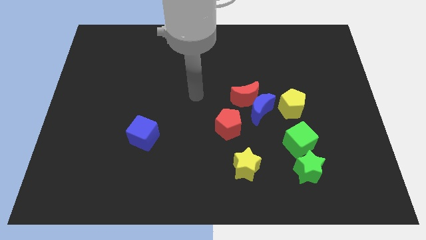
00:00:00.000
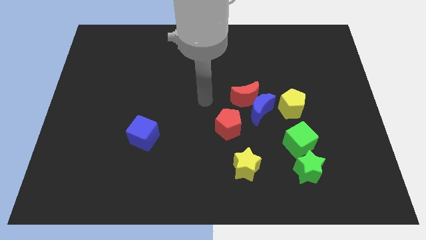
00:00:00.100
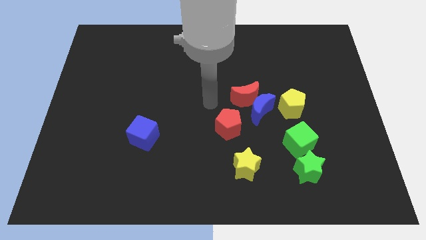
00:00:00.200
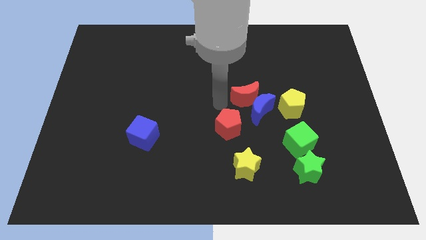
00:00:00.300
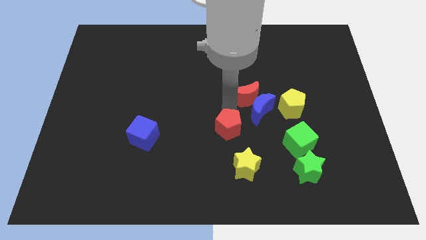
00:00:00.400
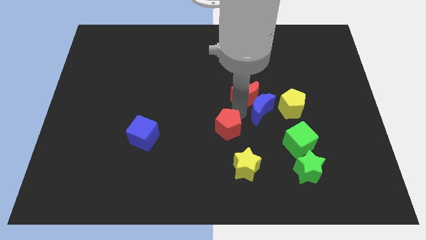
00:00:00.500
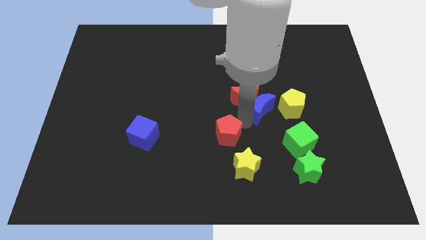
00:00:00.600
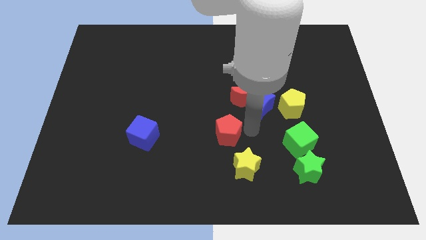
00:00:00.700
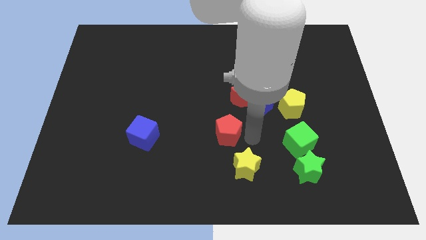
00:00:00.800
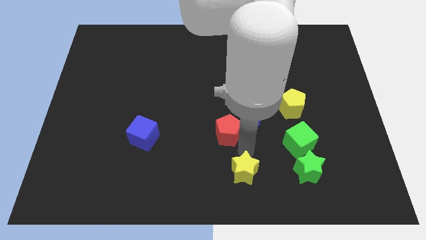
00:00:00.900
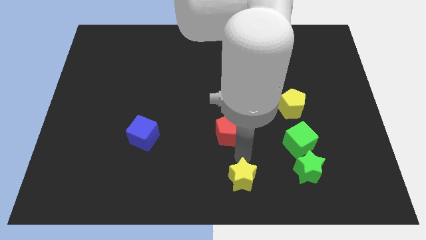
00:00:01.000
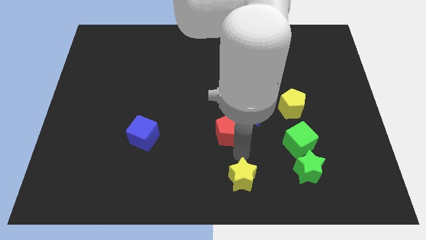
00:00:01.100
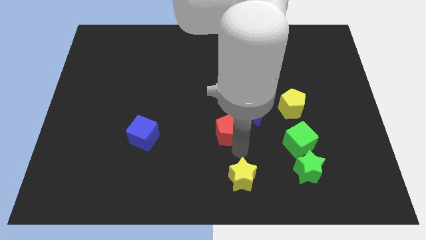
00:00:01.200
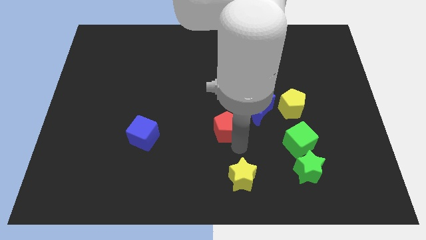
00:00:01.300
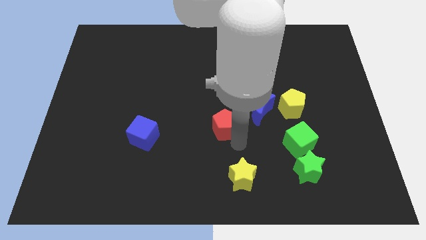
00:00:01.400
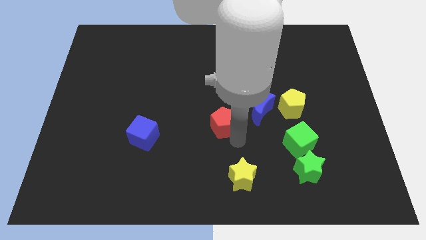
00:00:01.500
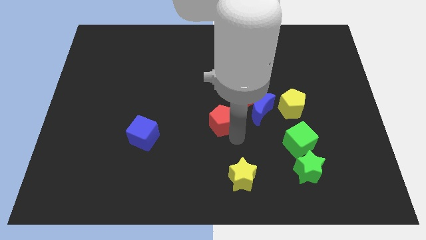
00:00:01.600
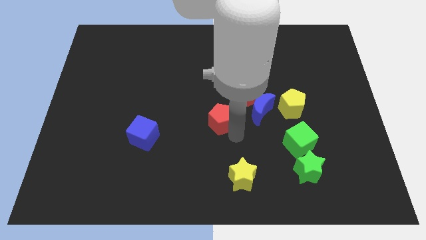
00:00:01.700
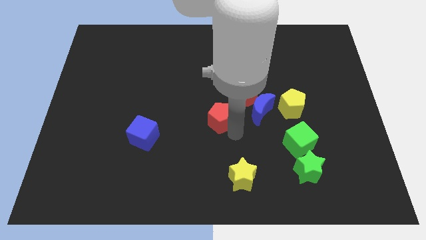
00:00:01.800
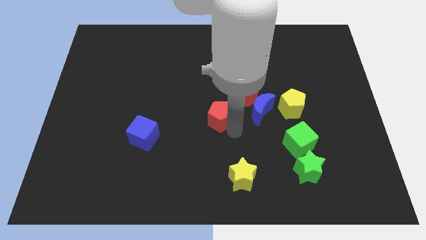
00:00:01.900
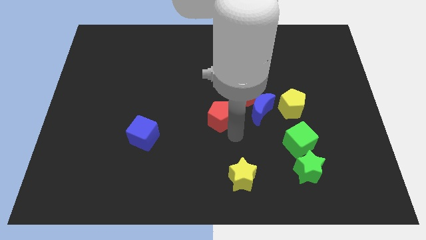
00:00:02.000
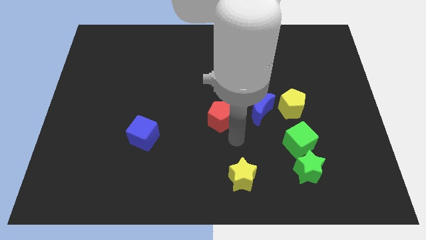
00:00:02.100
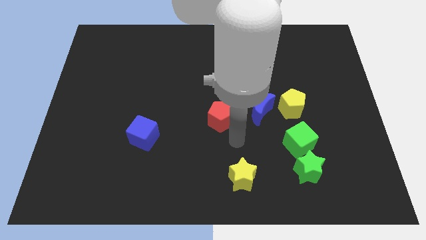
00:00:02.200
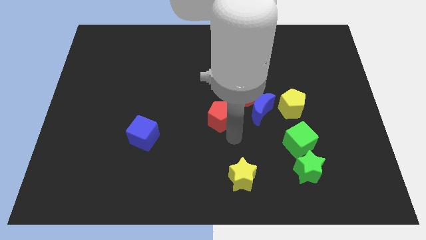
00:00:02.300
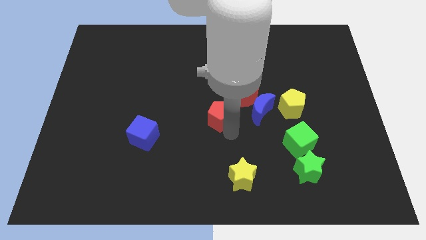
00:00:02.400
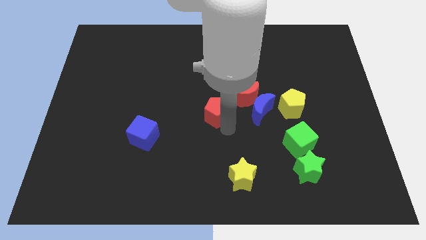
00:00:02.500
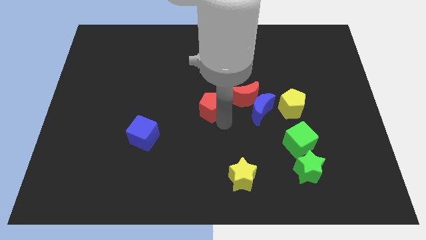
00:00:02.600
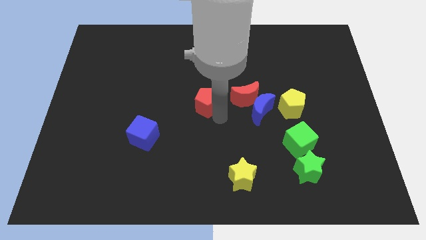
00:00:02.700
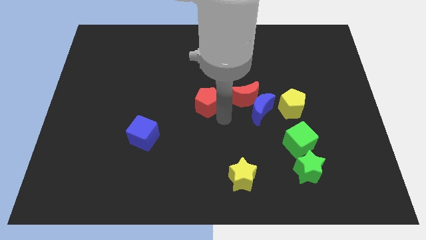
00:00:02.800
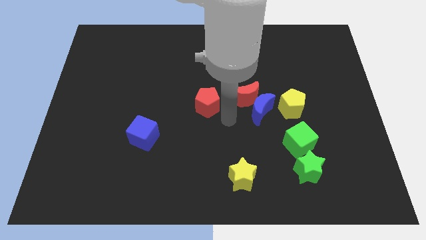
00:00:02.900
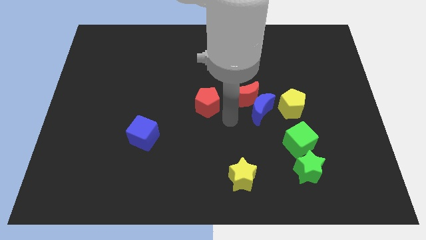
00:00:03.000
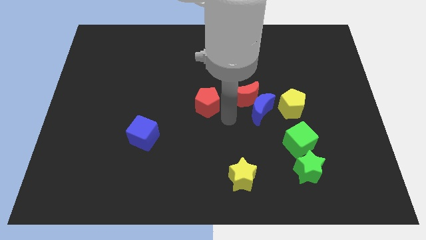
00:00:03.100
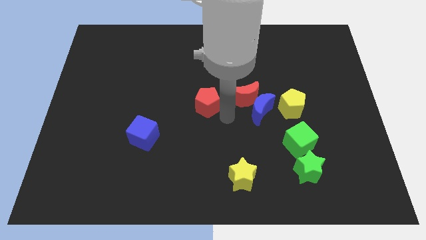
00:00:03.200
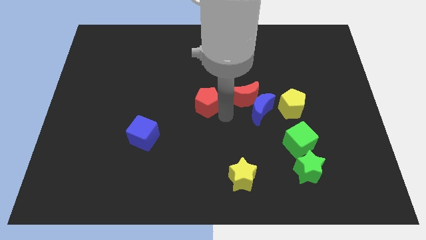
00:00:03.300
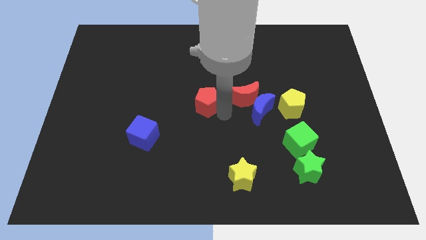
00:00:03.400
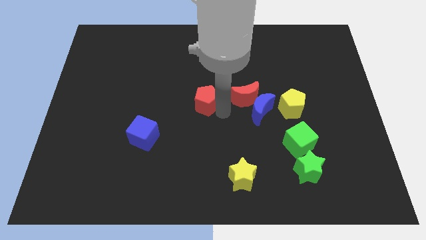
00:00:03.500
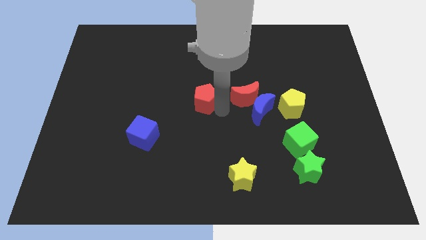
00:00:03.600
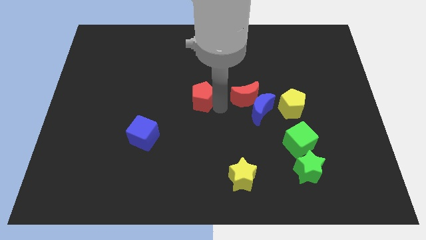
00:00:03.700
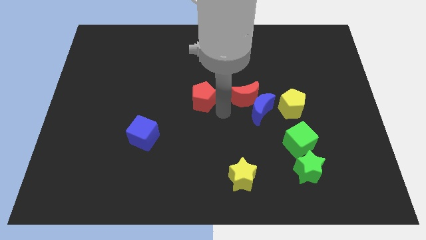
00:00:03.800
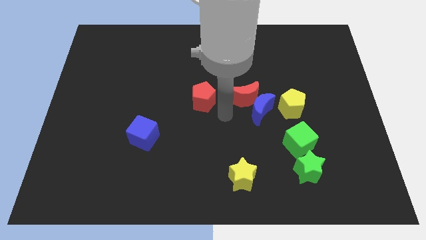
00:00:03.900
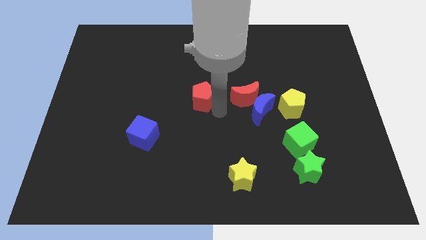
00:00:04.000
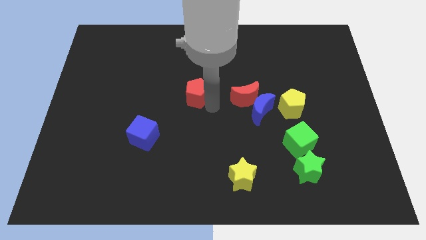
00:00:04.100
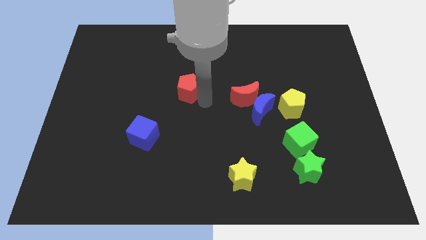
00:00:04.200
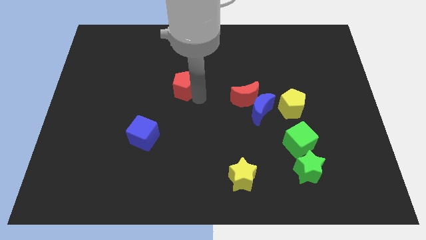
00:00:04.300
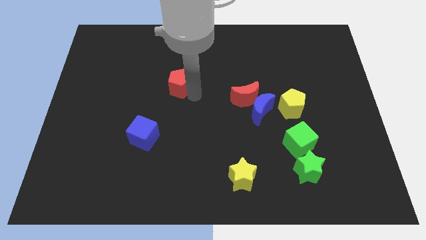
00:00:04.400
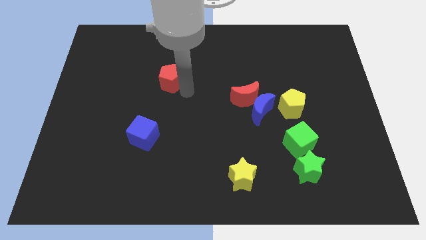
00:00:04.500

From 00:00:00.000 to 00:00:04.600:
slide the red pentagon up and then left

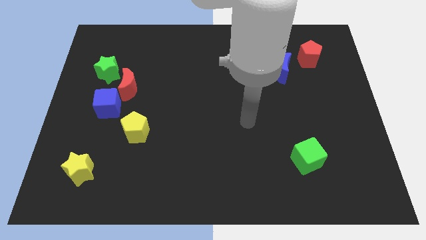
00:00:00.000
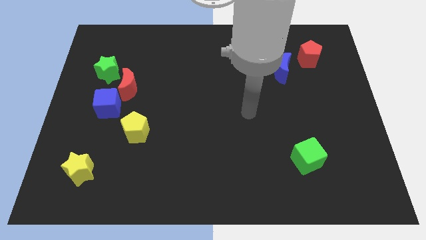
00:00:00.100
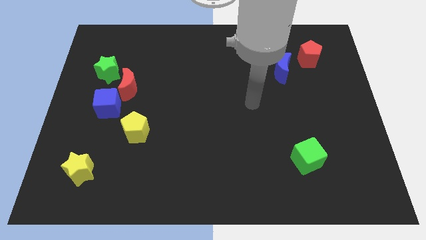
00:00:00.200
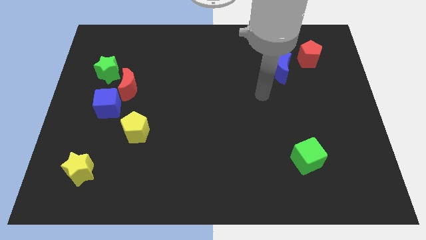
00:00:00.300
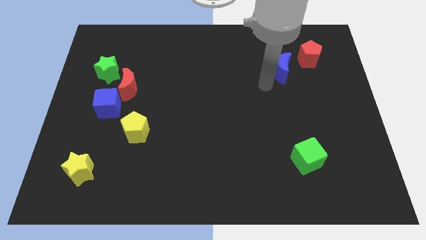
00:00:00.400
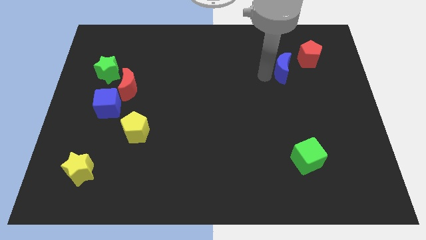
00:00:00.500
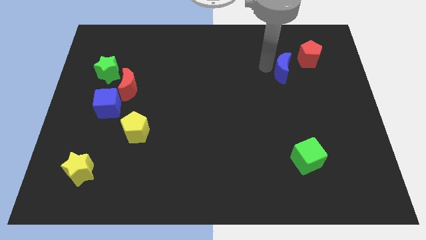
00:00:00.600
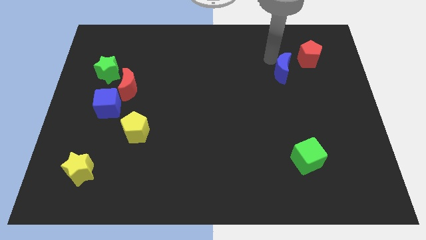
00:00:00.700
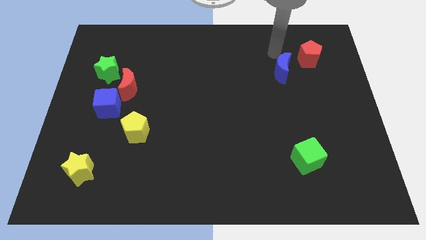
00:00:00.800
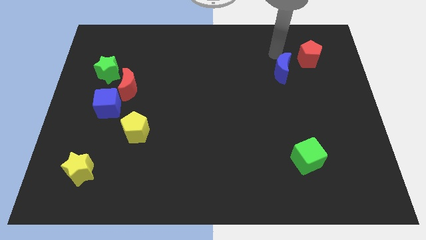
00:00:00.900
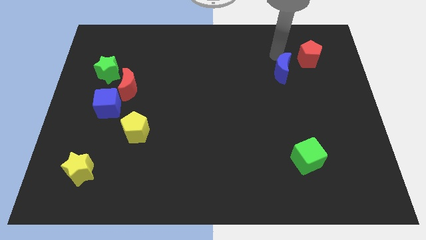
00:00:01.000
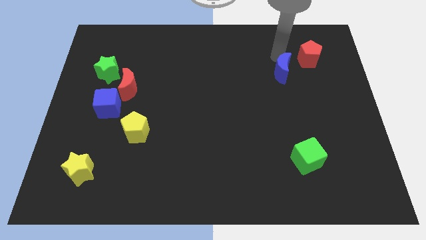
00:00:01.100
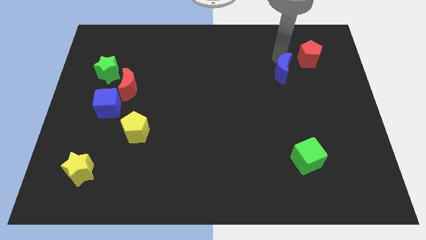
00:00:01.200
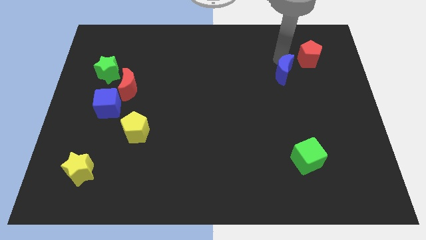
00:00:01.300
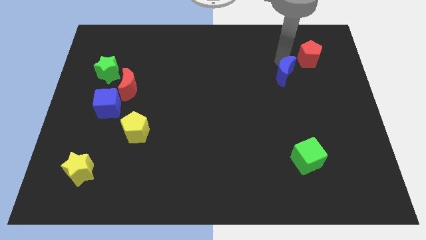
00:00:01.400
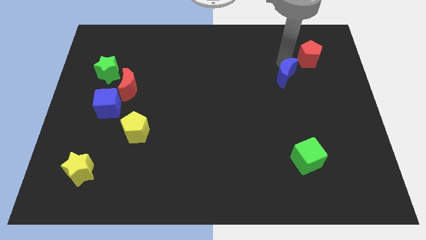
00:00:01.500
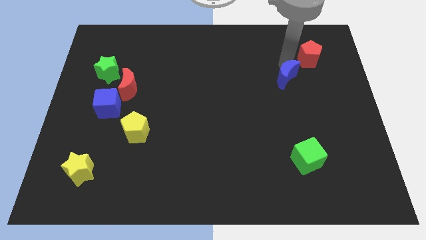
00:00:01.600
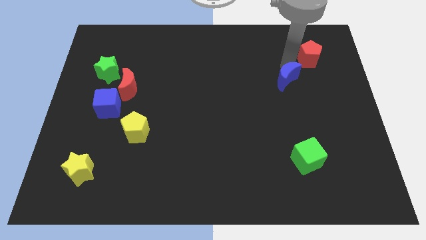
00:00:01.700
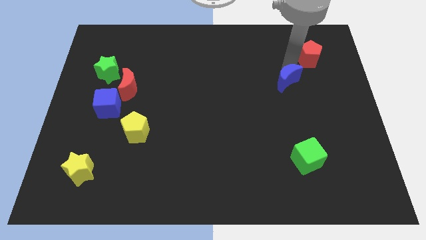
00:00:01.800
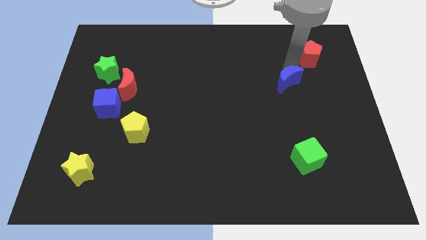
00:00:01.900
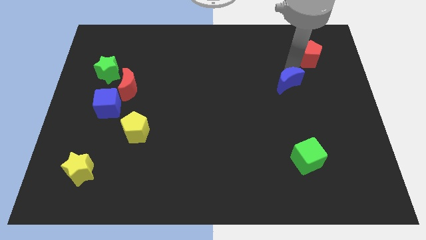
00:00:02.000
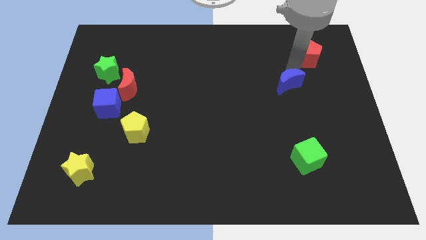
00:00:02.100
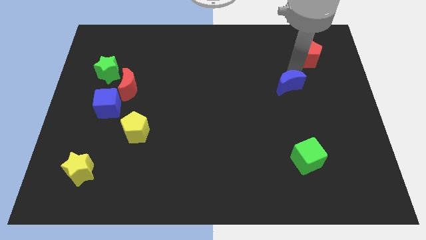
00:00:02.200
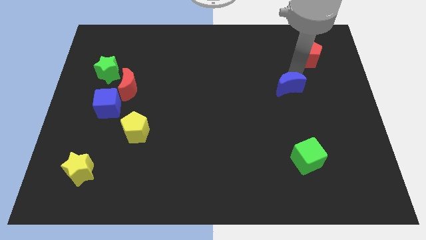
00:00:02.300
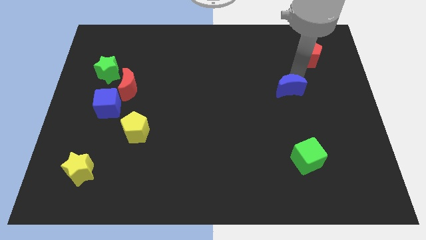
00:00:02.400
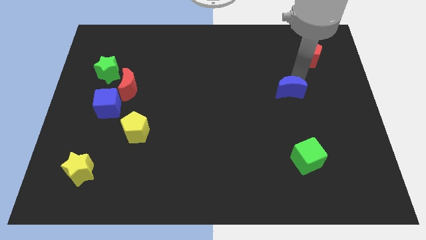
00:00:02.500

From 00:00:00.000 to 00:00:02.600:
slightly move the blue moon down

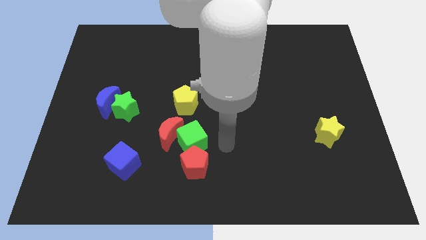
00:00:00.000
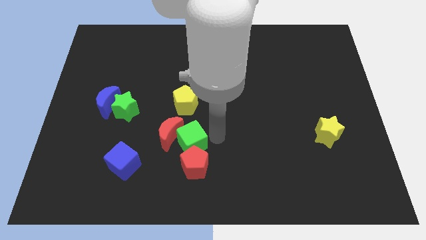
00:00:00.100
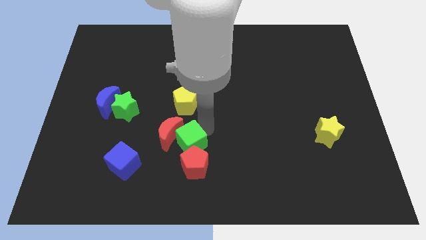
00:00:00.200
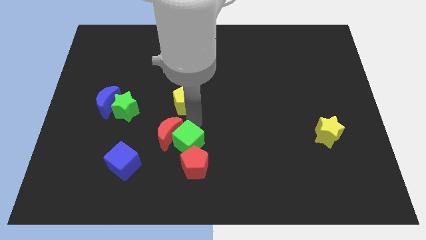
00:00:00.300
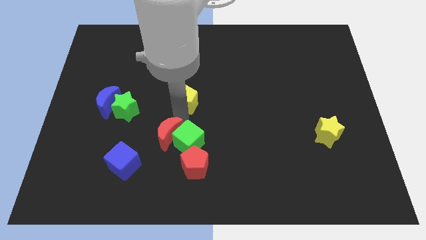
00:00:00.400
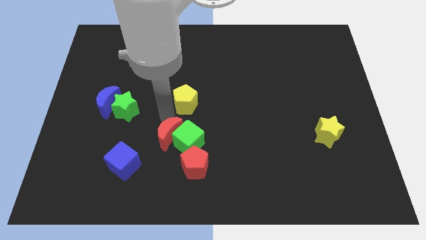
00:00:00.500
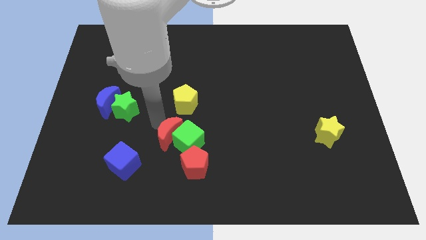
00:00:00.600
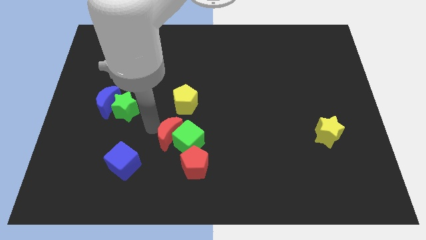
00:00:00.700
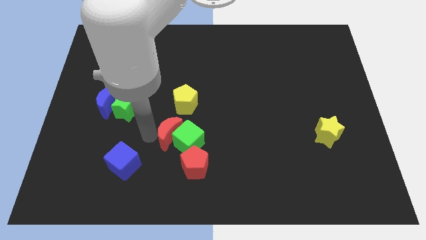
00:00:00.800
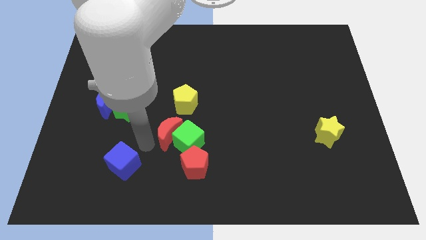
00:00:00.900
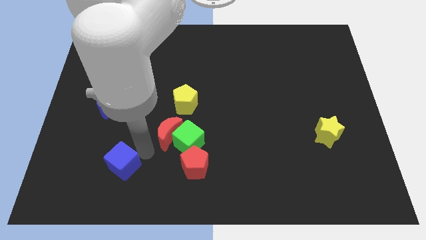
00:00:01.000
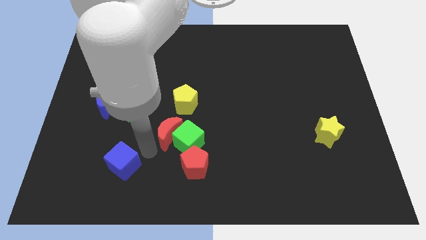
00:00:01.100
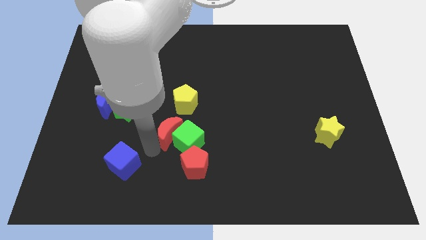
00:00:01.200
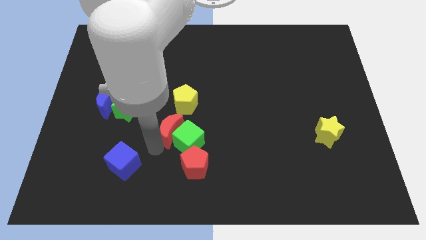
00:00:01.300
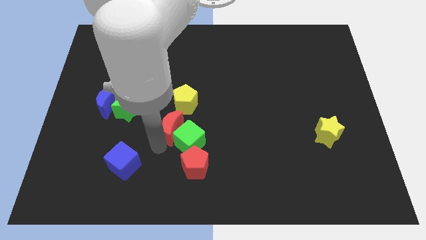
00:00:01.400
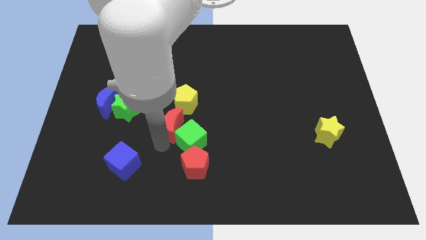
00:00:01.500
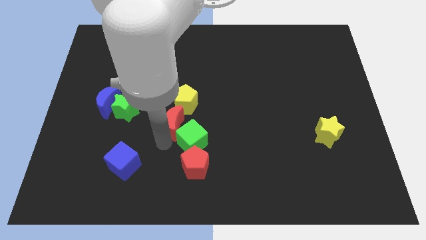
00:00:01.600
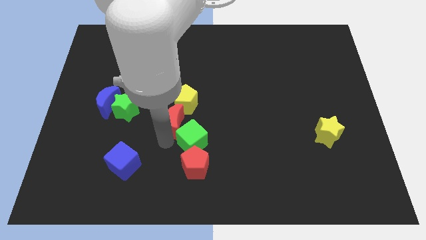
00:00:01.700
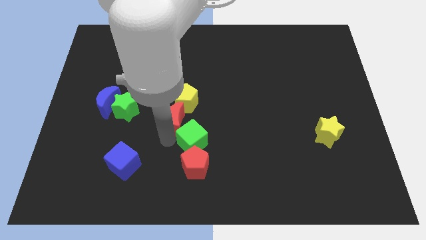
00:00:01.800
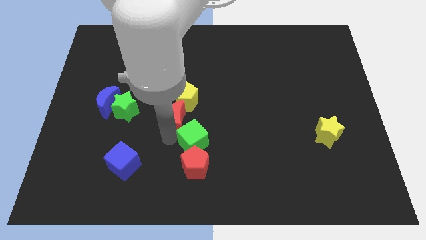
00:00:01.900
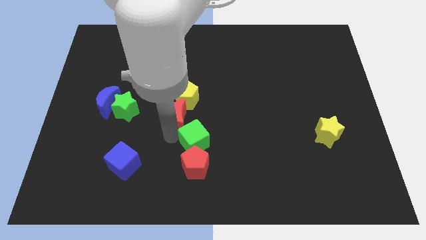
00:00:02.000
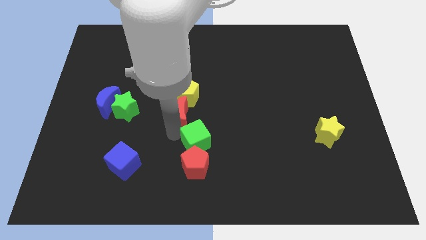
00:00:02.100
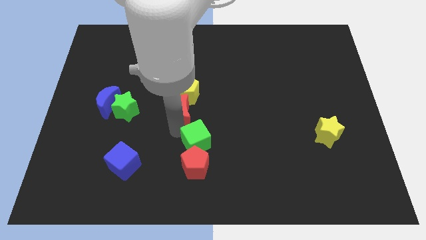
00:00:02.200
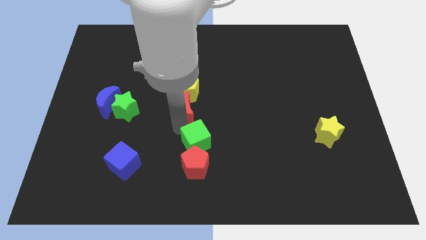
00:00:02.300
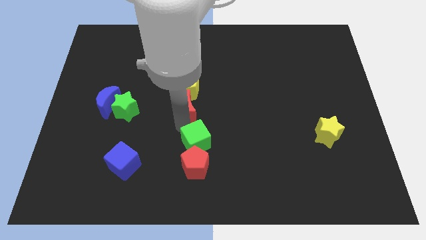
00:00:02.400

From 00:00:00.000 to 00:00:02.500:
slide the red moon somewhat up and to the right diagonally
